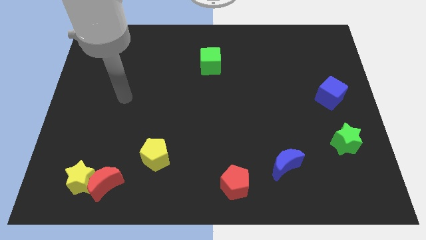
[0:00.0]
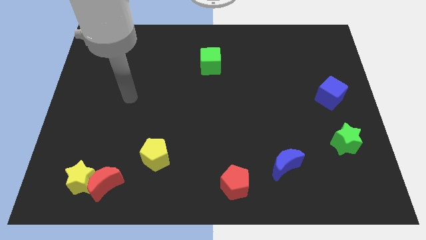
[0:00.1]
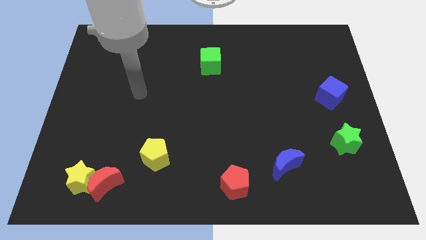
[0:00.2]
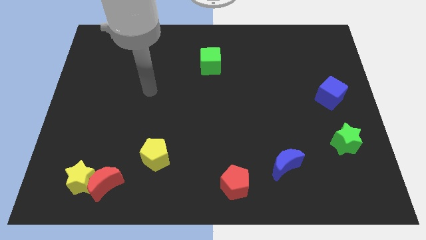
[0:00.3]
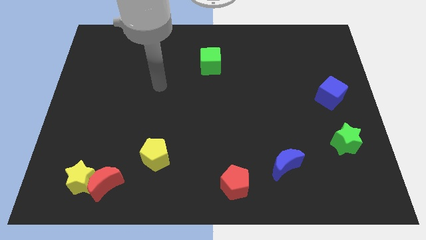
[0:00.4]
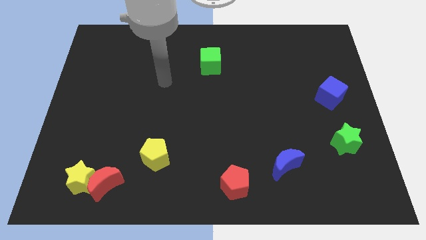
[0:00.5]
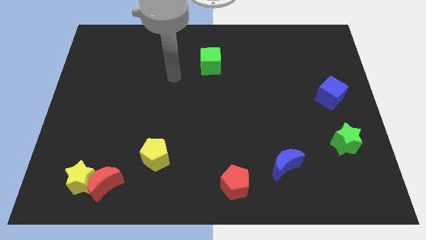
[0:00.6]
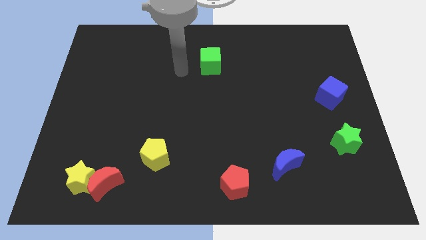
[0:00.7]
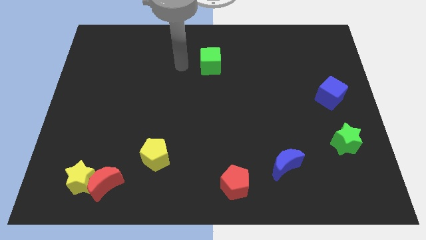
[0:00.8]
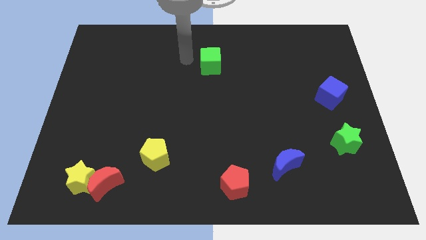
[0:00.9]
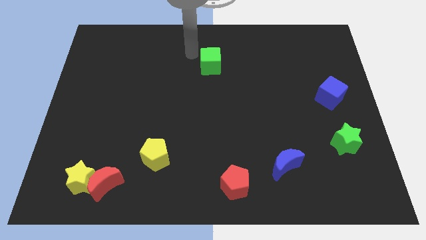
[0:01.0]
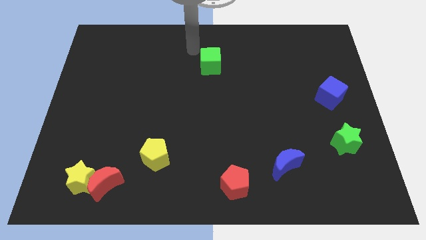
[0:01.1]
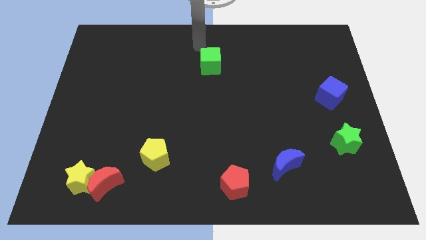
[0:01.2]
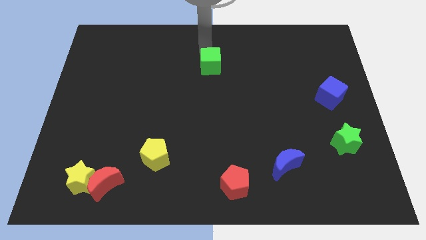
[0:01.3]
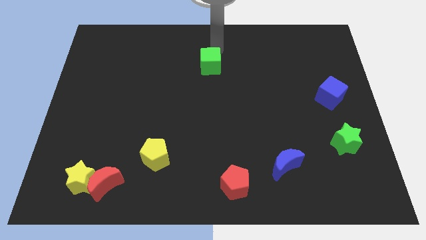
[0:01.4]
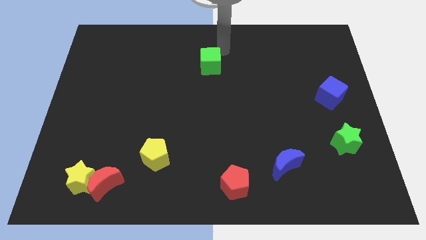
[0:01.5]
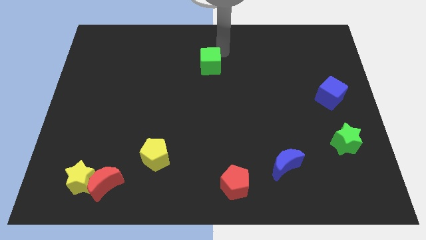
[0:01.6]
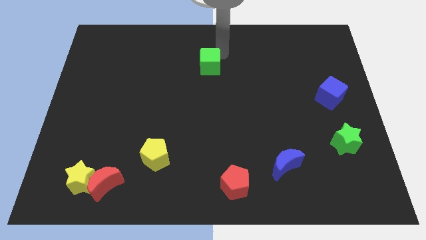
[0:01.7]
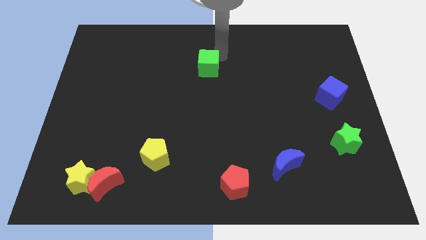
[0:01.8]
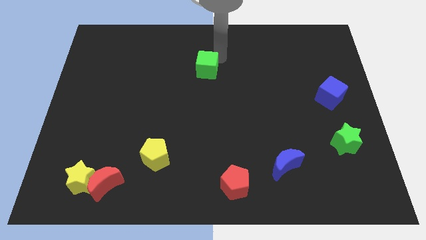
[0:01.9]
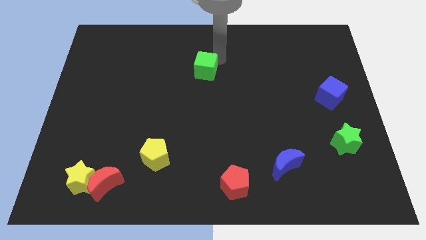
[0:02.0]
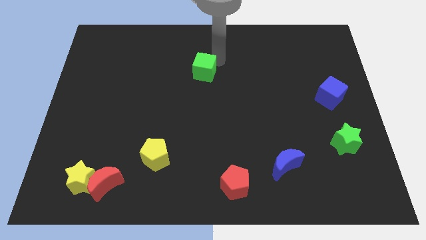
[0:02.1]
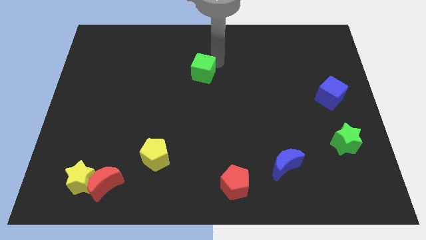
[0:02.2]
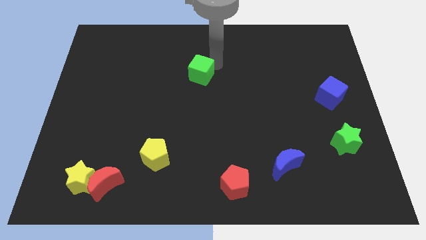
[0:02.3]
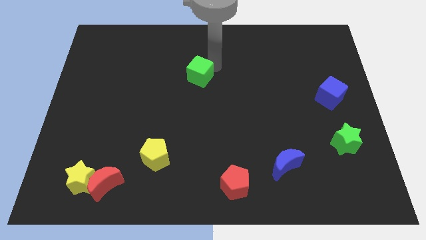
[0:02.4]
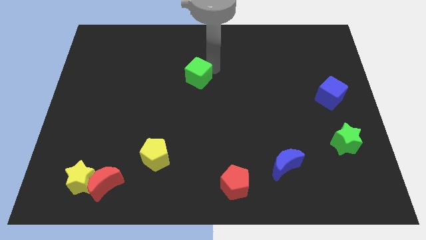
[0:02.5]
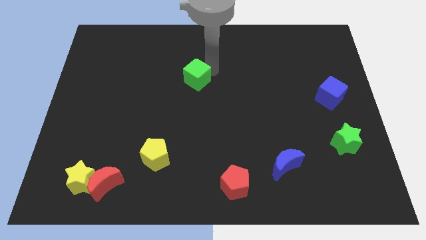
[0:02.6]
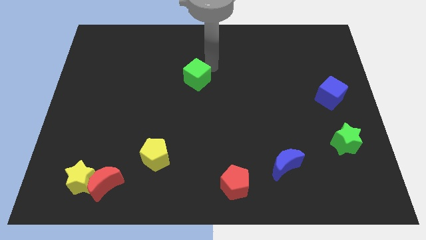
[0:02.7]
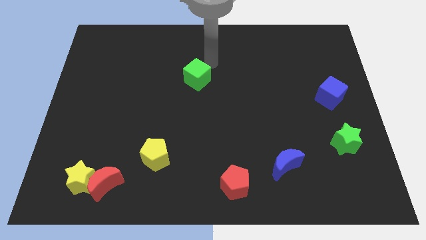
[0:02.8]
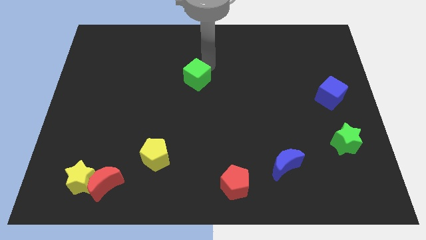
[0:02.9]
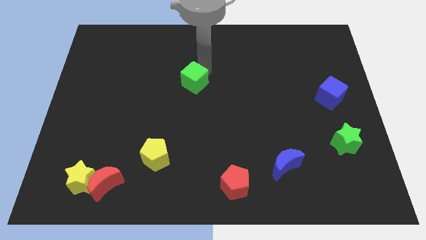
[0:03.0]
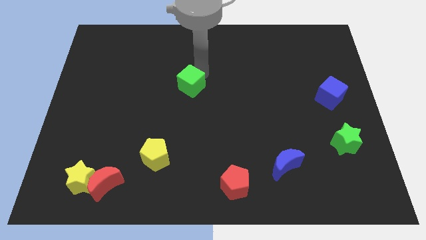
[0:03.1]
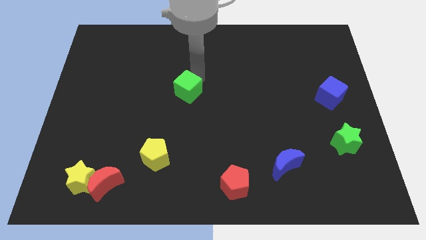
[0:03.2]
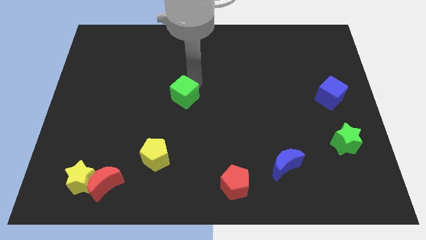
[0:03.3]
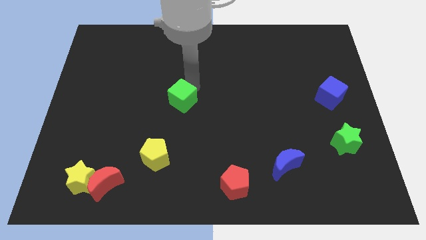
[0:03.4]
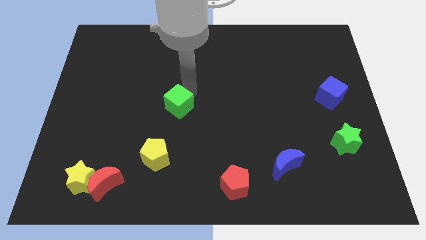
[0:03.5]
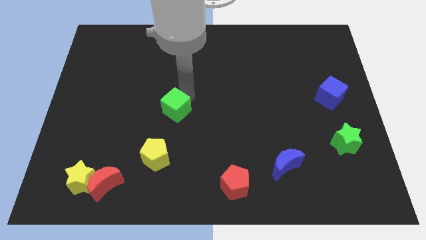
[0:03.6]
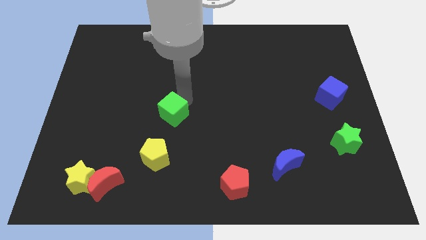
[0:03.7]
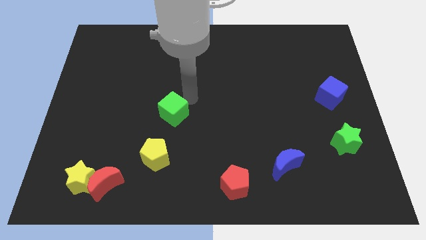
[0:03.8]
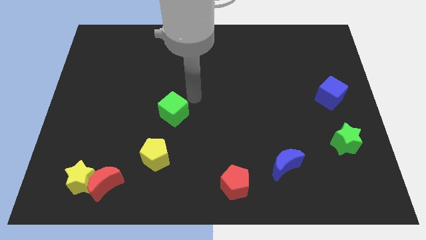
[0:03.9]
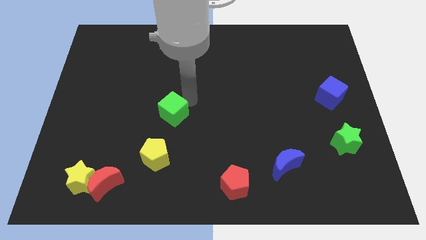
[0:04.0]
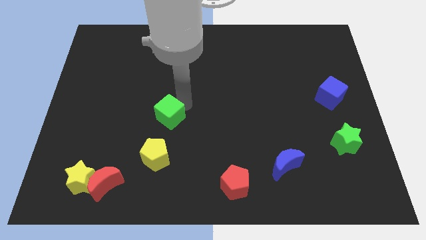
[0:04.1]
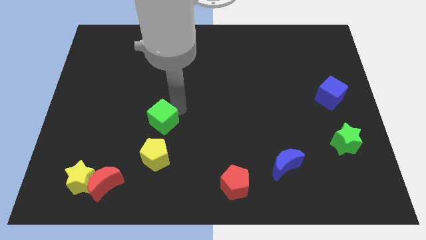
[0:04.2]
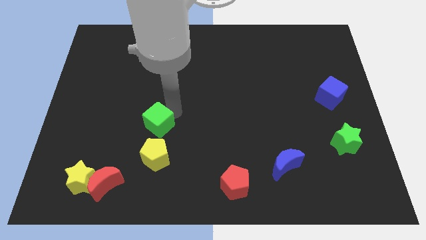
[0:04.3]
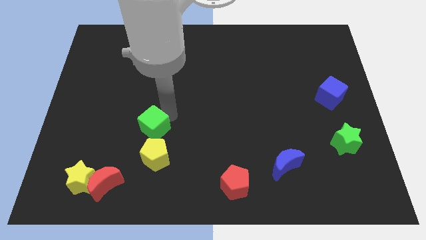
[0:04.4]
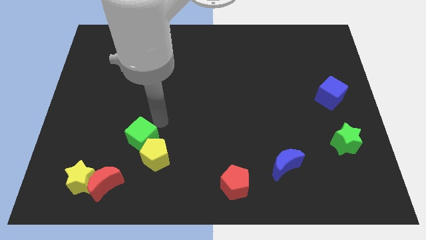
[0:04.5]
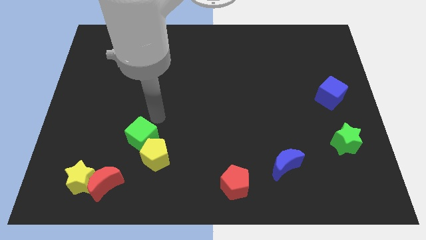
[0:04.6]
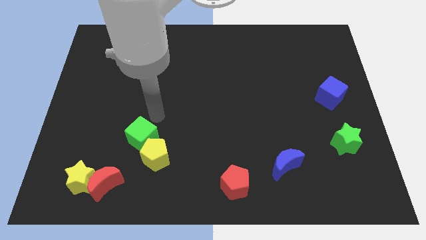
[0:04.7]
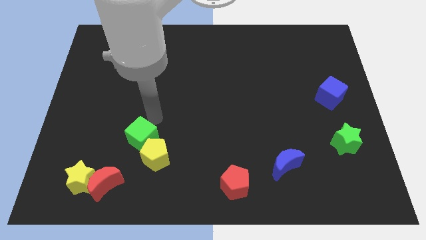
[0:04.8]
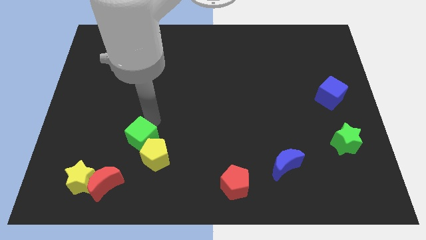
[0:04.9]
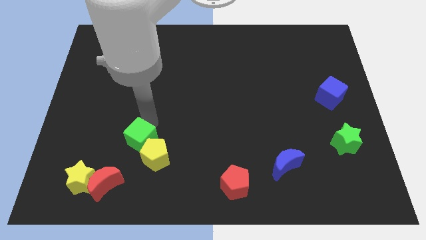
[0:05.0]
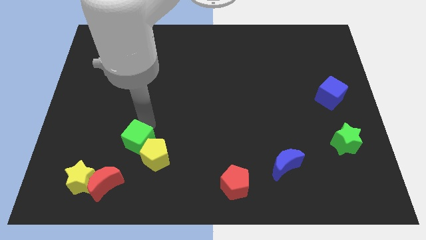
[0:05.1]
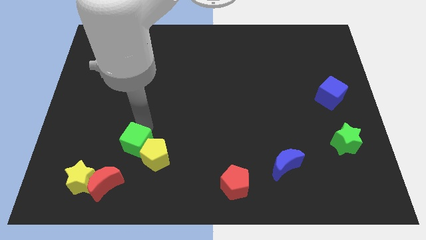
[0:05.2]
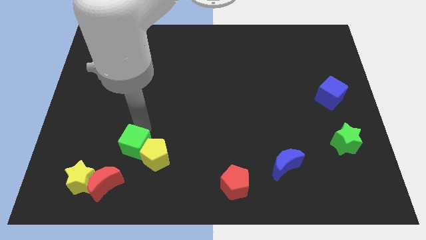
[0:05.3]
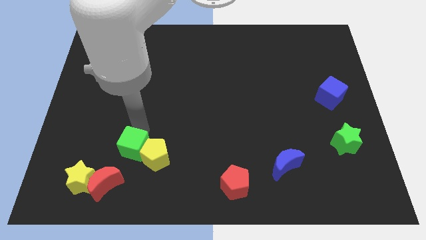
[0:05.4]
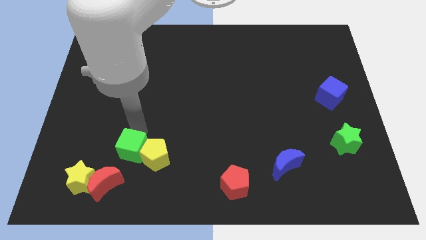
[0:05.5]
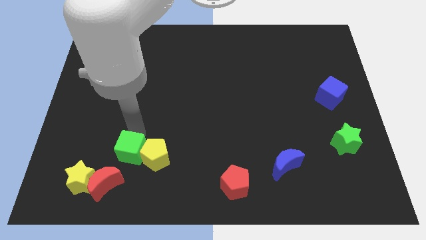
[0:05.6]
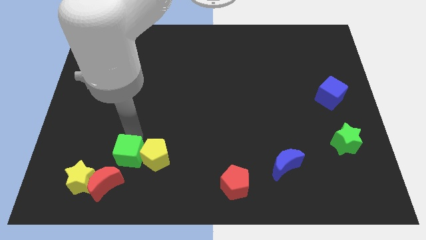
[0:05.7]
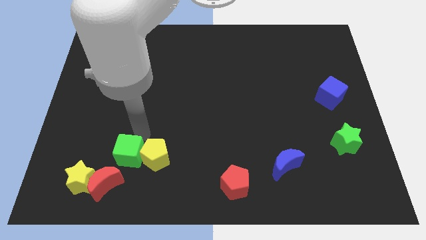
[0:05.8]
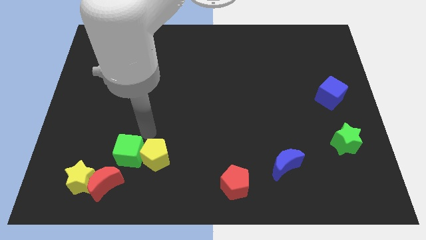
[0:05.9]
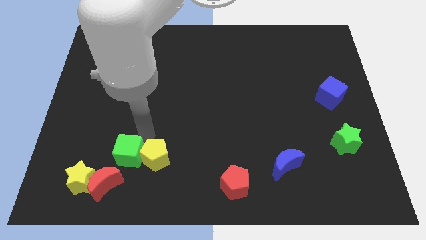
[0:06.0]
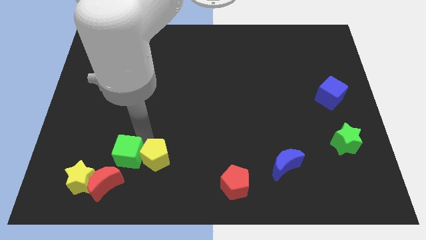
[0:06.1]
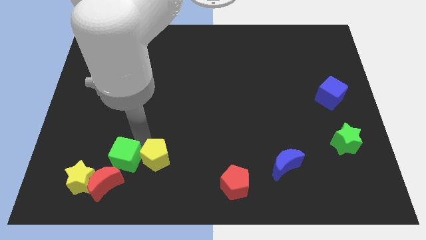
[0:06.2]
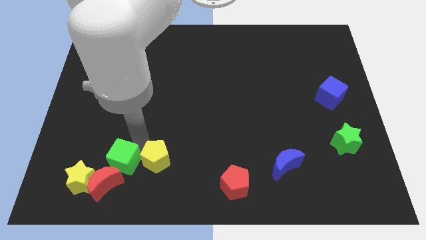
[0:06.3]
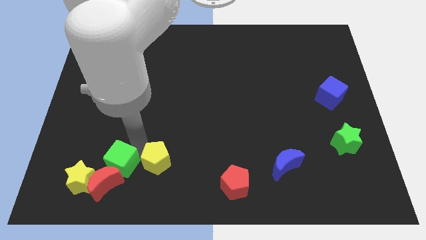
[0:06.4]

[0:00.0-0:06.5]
push the green cube to the red moon

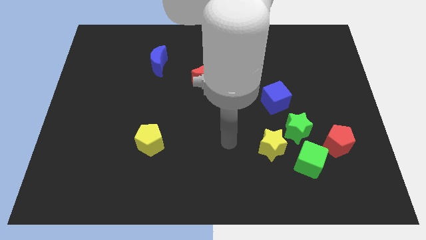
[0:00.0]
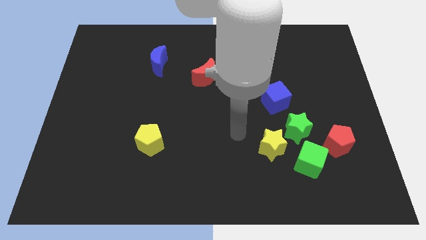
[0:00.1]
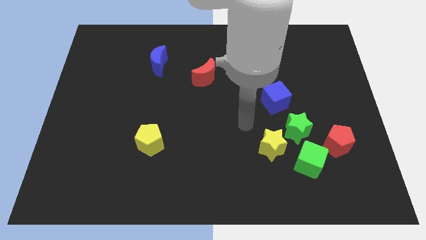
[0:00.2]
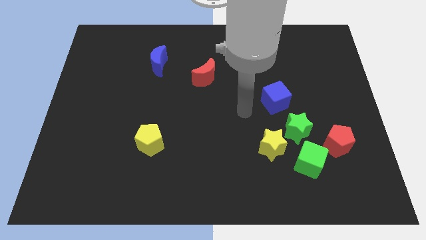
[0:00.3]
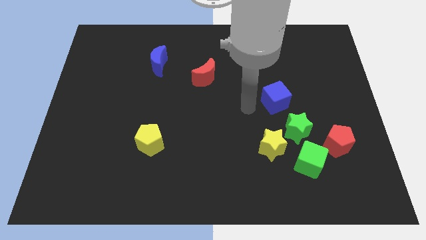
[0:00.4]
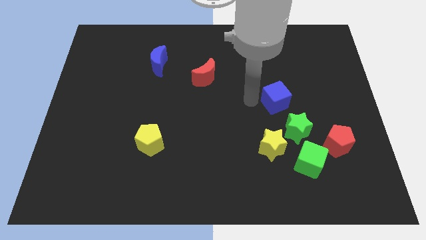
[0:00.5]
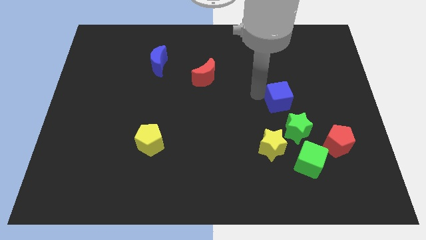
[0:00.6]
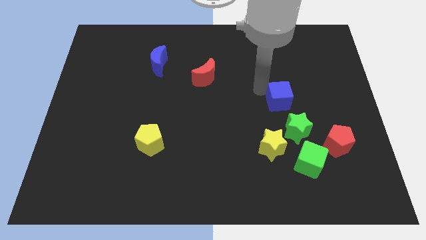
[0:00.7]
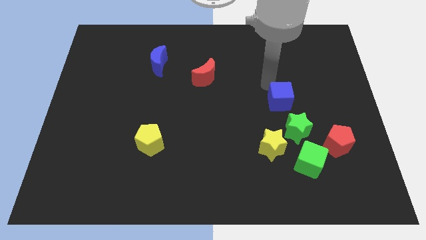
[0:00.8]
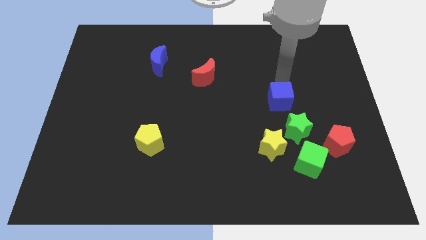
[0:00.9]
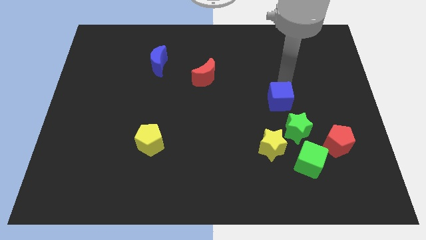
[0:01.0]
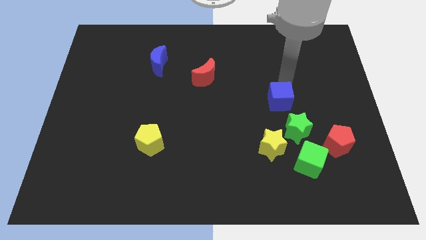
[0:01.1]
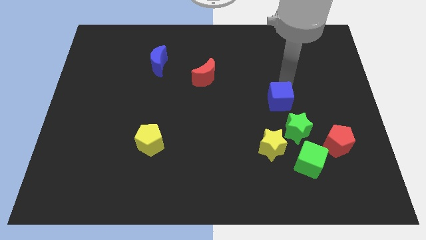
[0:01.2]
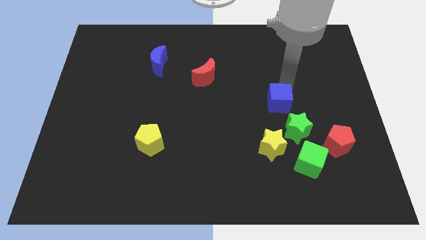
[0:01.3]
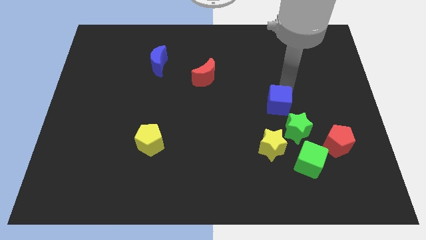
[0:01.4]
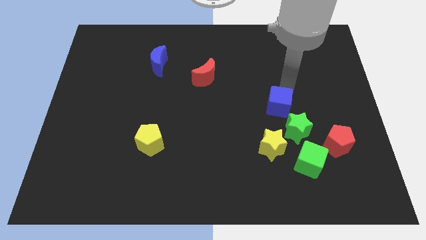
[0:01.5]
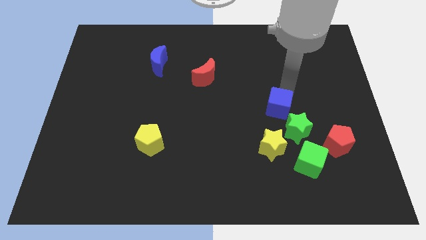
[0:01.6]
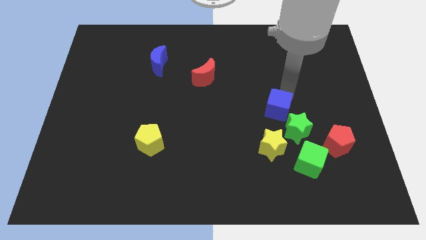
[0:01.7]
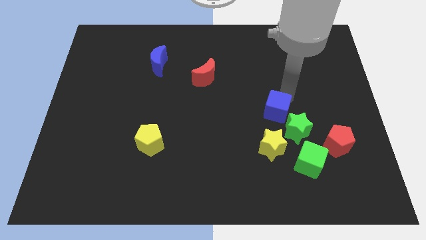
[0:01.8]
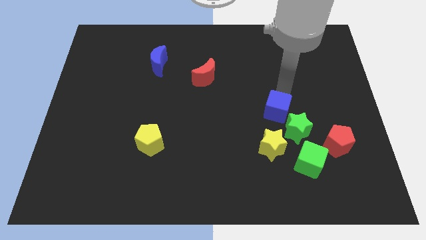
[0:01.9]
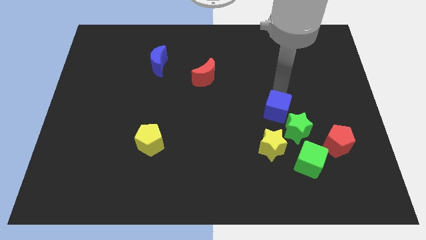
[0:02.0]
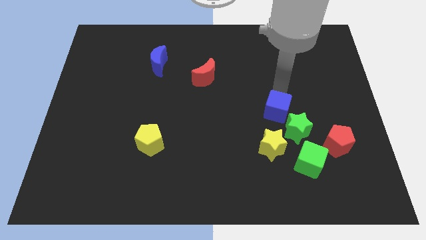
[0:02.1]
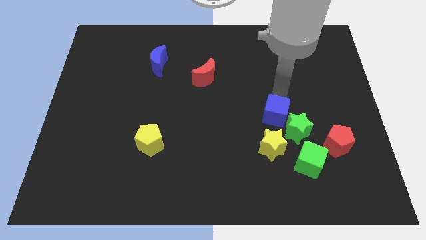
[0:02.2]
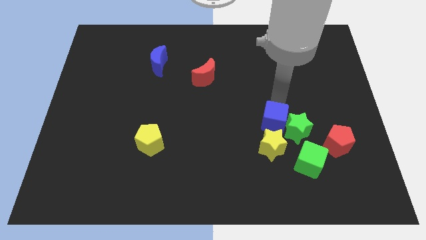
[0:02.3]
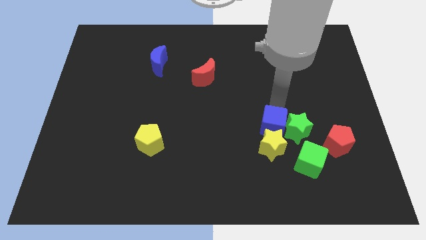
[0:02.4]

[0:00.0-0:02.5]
push the blue cube close to the yellow star
